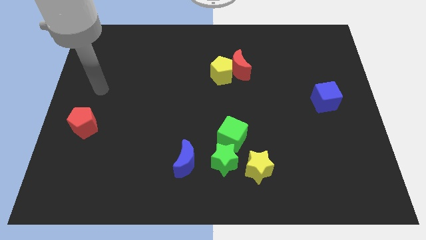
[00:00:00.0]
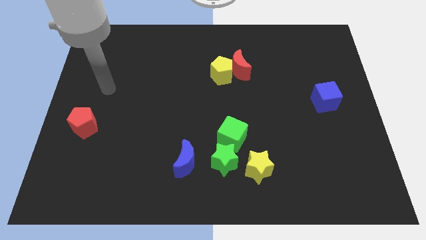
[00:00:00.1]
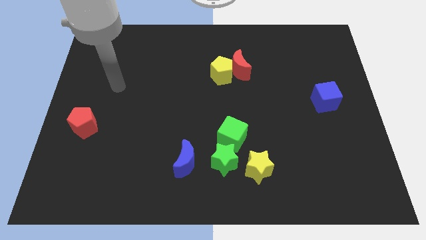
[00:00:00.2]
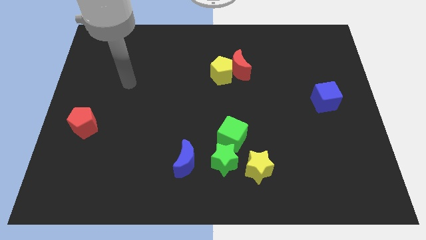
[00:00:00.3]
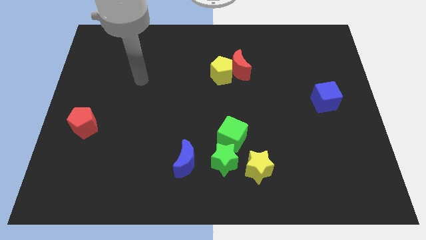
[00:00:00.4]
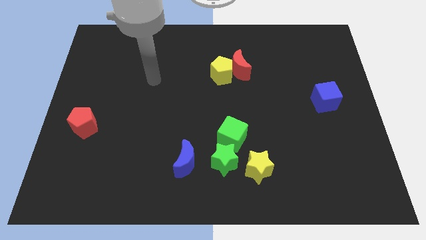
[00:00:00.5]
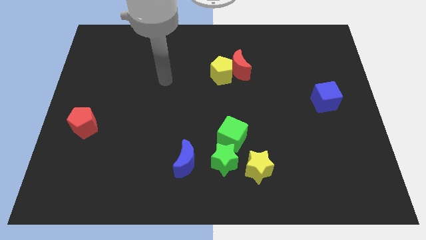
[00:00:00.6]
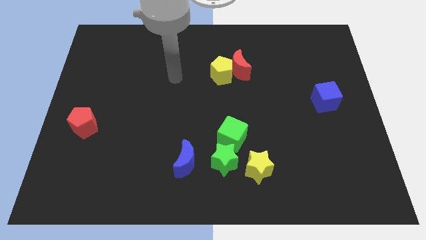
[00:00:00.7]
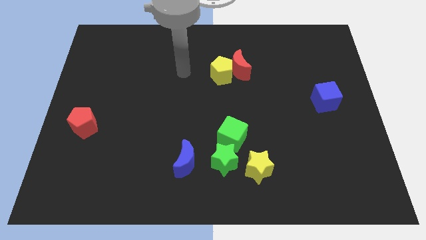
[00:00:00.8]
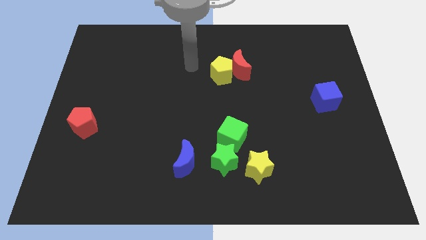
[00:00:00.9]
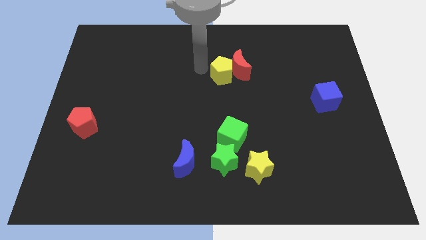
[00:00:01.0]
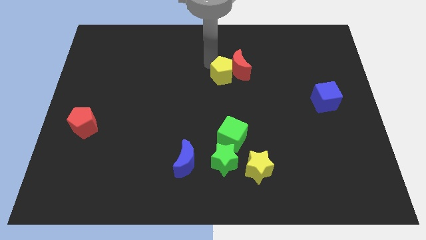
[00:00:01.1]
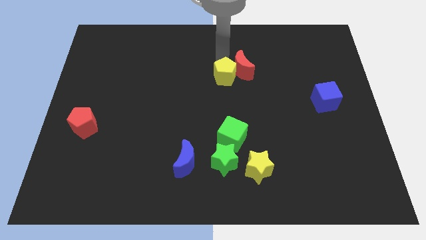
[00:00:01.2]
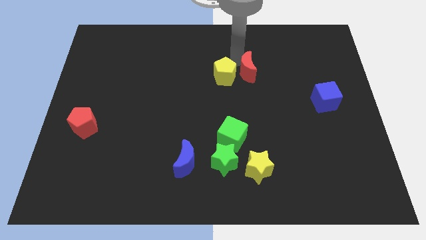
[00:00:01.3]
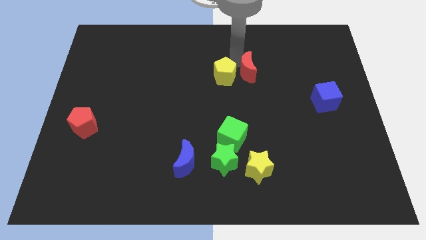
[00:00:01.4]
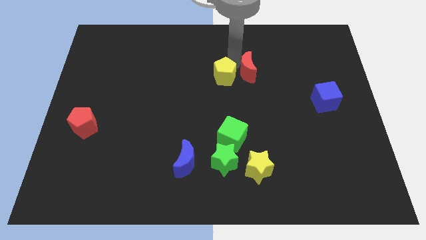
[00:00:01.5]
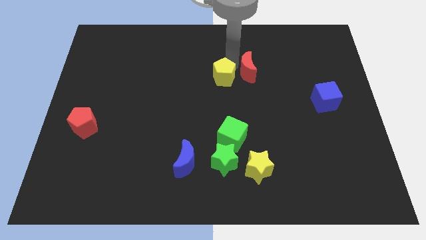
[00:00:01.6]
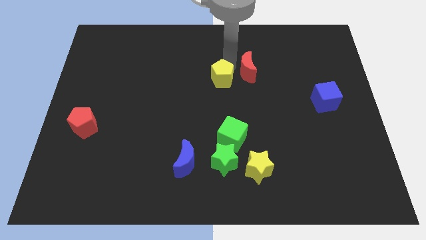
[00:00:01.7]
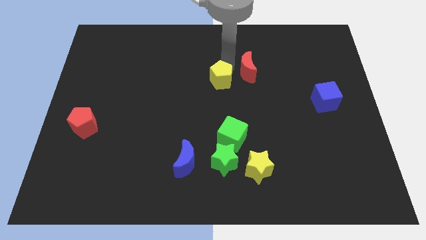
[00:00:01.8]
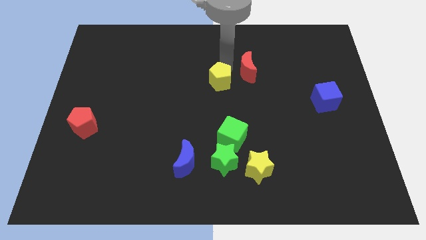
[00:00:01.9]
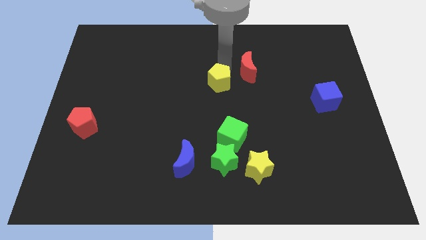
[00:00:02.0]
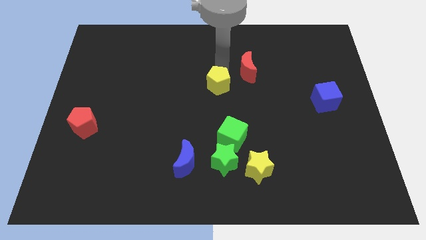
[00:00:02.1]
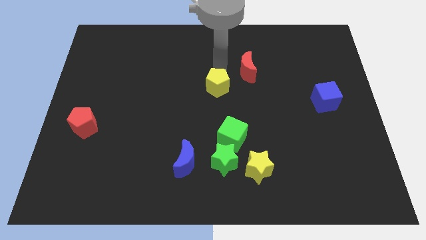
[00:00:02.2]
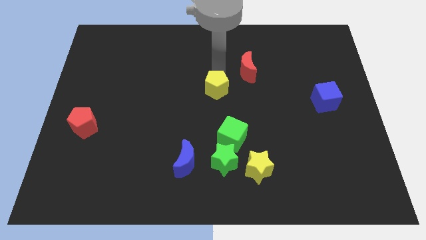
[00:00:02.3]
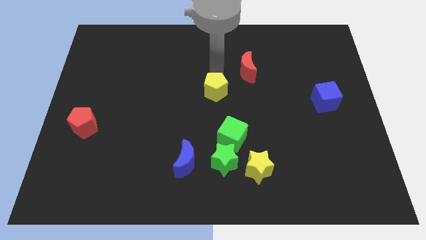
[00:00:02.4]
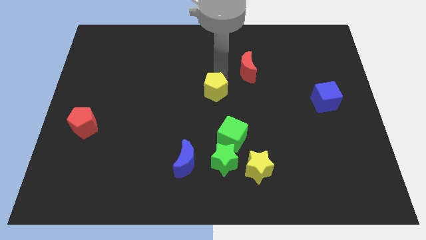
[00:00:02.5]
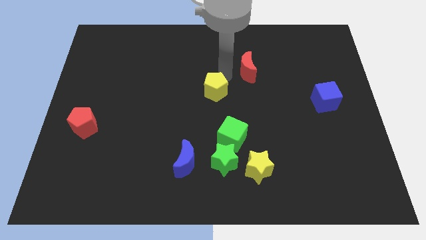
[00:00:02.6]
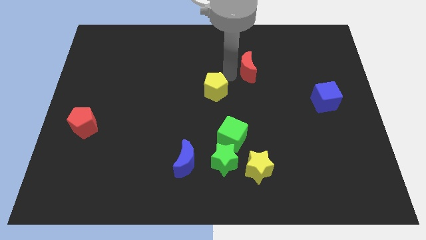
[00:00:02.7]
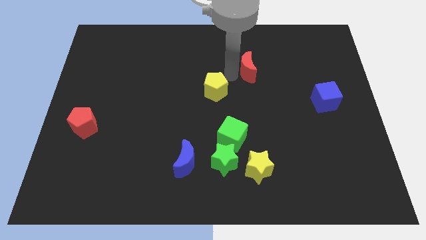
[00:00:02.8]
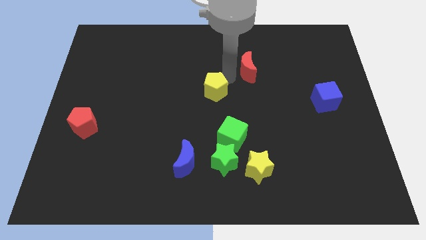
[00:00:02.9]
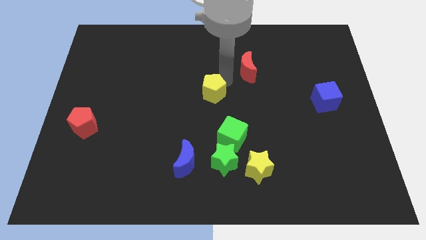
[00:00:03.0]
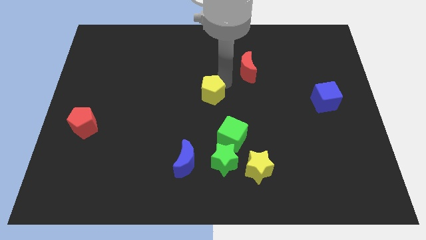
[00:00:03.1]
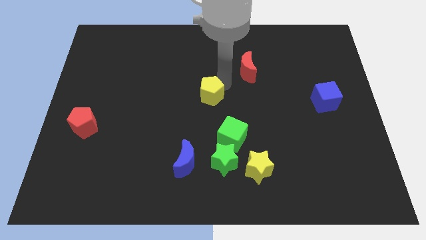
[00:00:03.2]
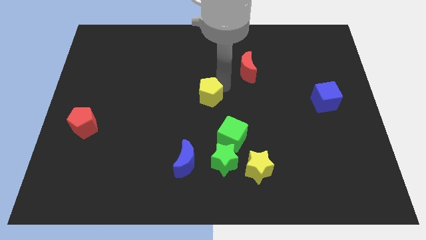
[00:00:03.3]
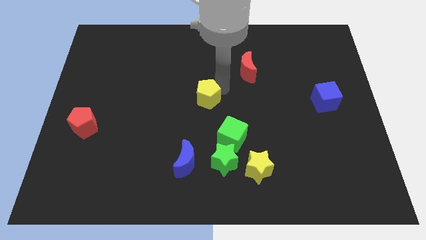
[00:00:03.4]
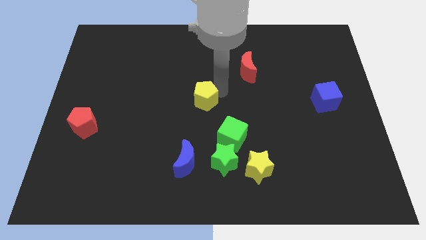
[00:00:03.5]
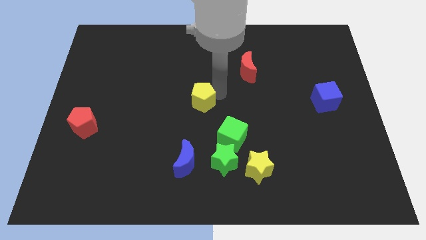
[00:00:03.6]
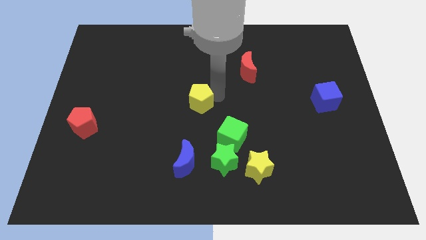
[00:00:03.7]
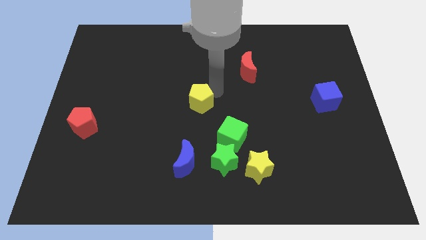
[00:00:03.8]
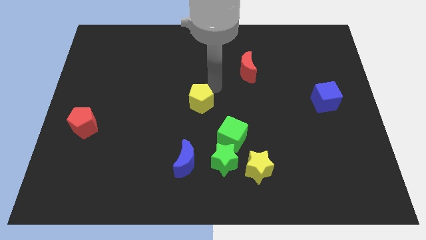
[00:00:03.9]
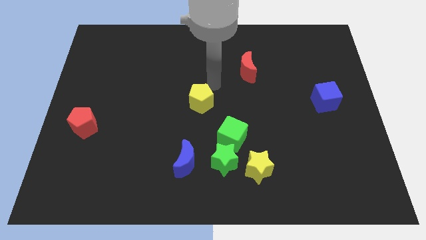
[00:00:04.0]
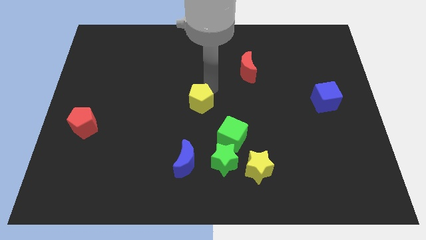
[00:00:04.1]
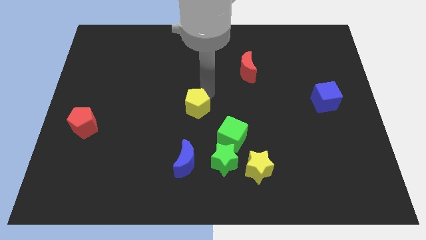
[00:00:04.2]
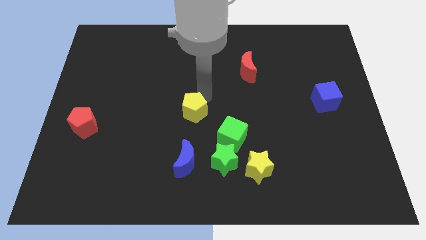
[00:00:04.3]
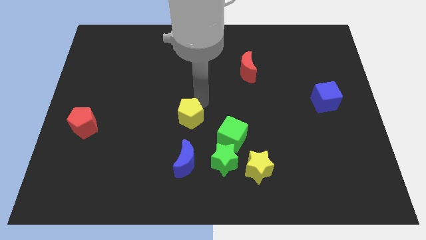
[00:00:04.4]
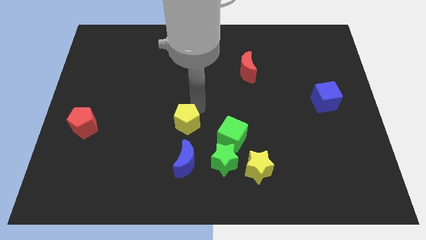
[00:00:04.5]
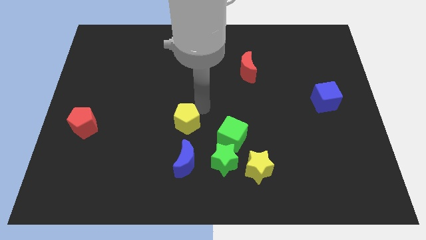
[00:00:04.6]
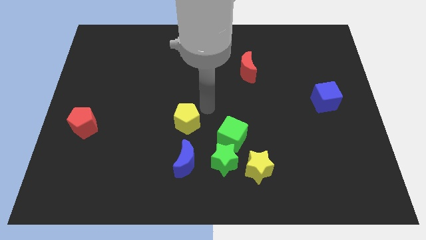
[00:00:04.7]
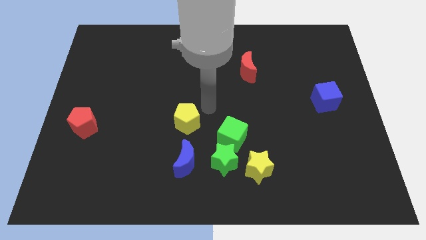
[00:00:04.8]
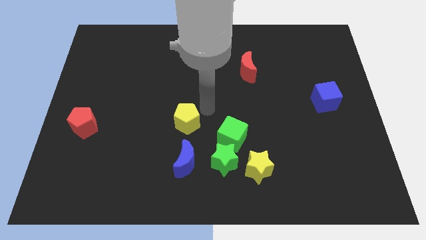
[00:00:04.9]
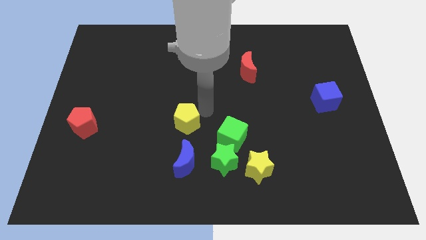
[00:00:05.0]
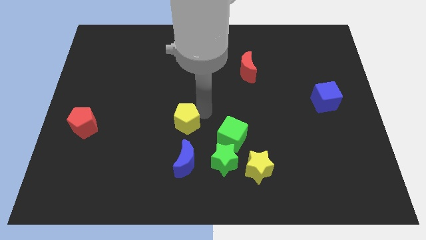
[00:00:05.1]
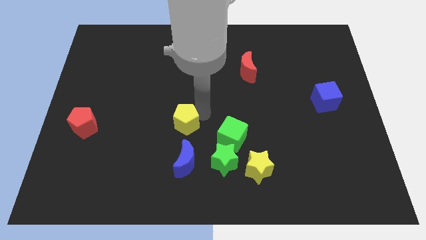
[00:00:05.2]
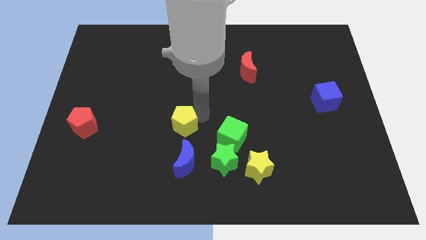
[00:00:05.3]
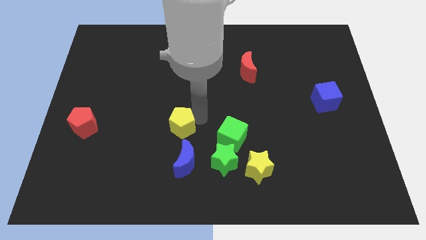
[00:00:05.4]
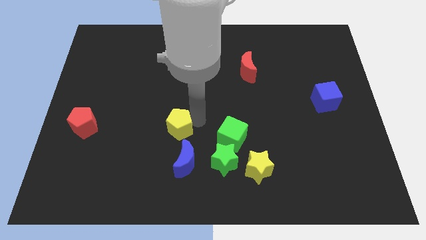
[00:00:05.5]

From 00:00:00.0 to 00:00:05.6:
push the yellow pentagon to the top left of the blue moon

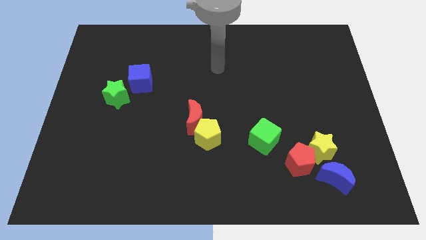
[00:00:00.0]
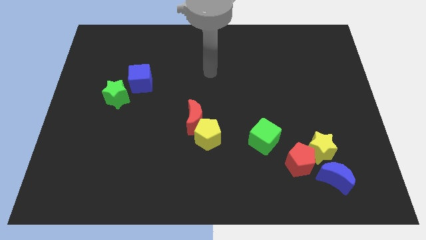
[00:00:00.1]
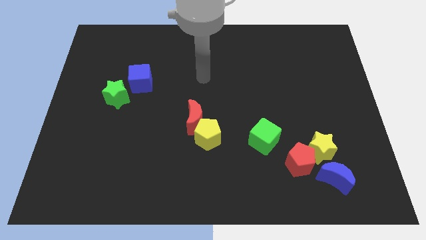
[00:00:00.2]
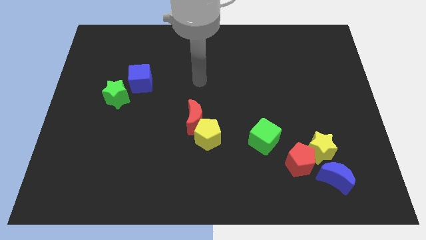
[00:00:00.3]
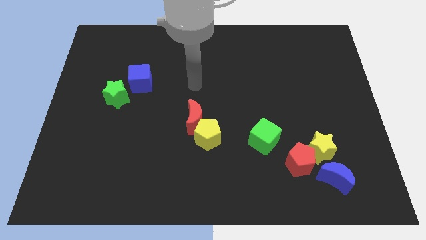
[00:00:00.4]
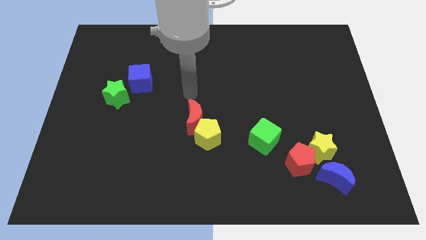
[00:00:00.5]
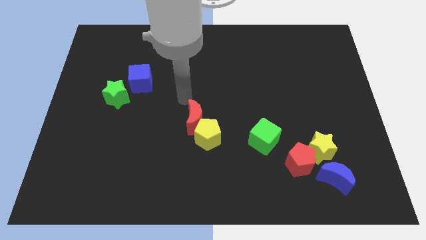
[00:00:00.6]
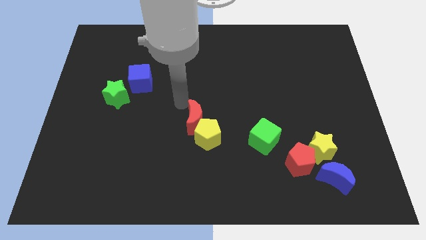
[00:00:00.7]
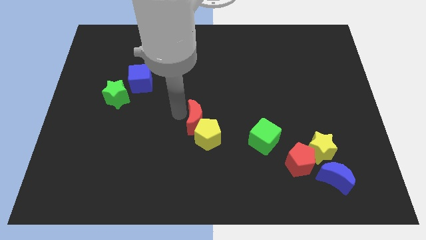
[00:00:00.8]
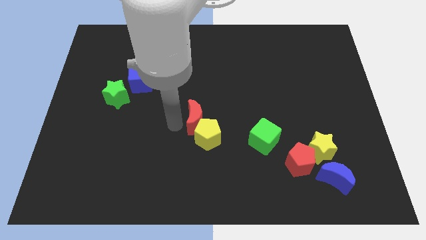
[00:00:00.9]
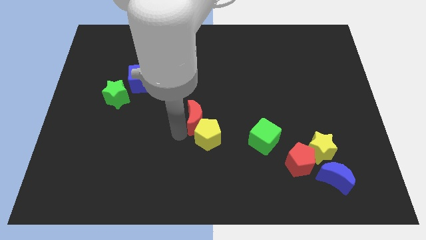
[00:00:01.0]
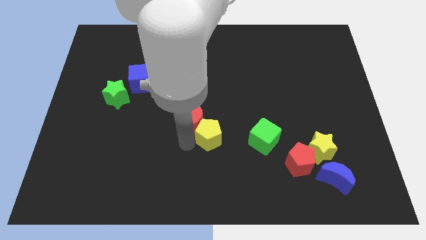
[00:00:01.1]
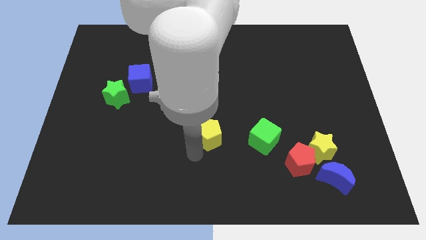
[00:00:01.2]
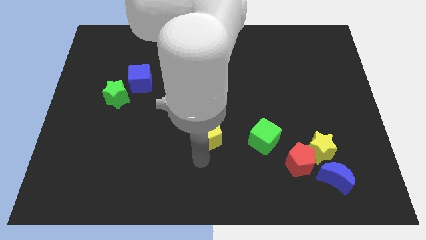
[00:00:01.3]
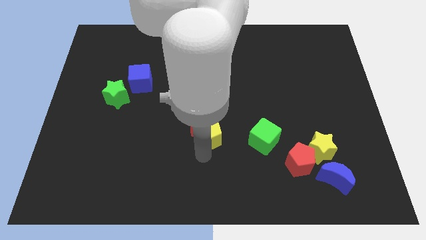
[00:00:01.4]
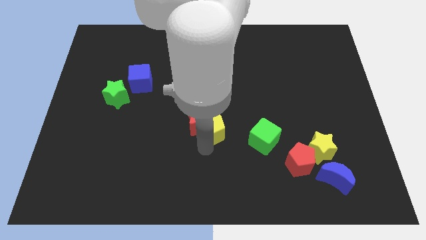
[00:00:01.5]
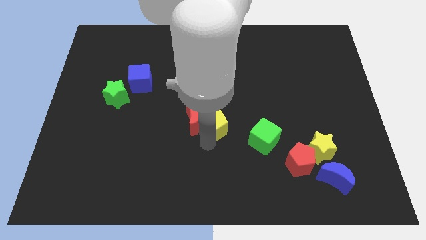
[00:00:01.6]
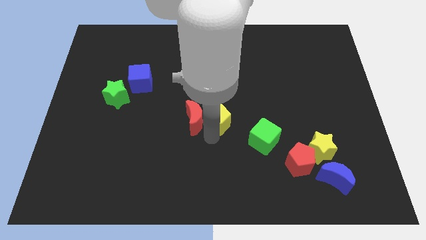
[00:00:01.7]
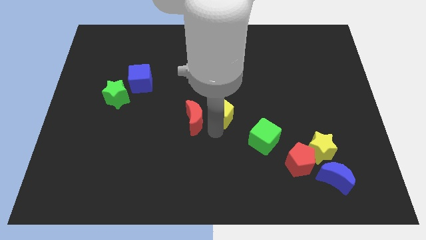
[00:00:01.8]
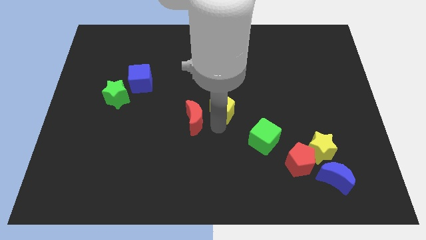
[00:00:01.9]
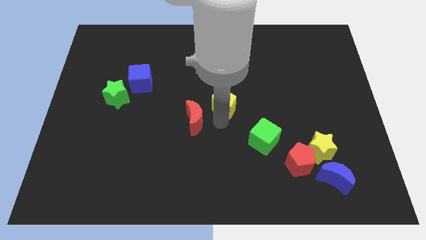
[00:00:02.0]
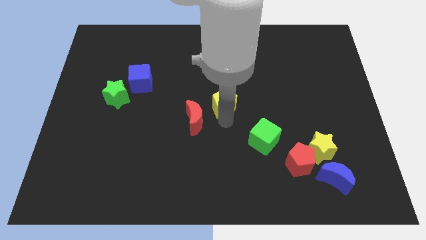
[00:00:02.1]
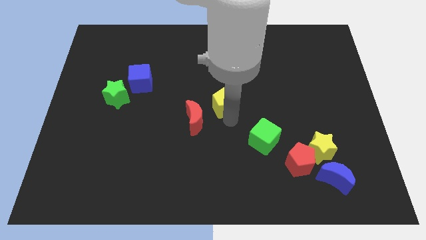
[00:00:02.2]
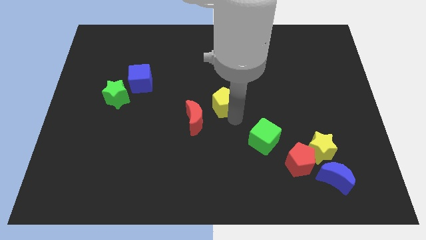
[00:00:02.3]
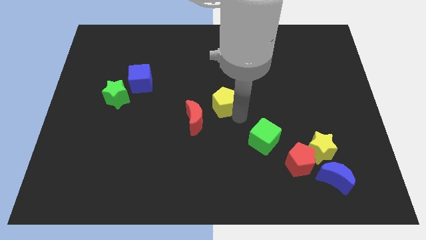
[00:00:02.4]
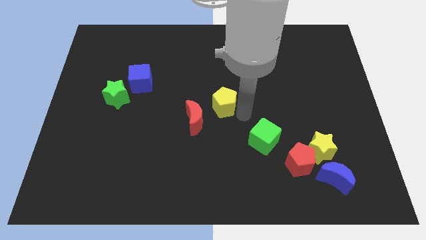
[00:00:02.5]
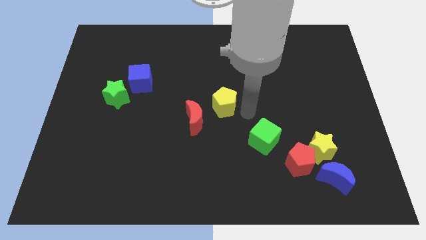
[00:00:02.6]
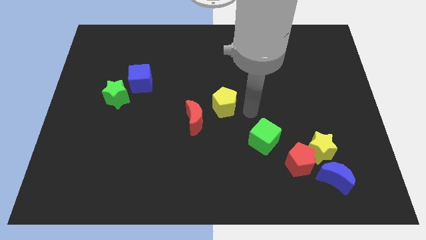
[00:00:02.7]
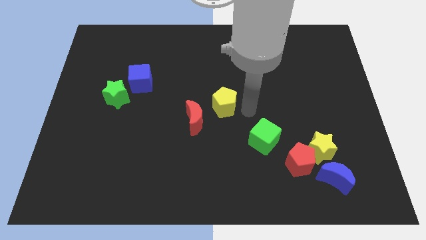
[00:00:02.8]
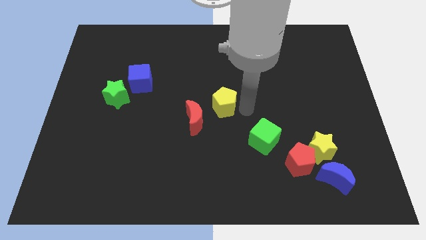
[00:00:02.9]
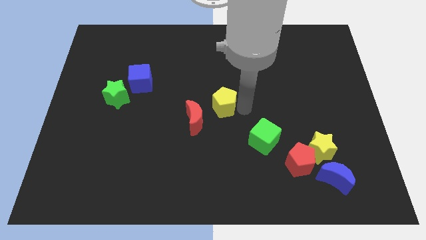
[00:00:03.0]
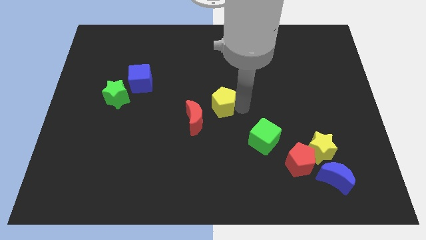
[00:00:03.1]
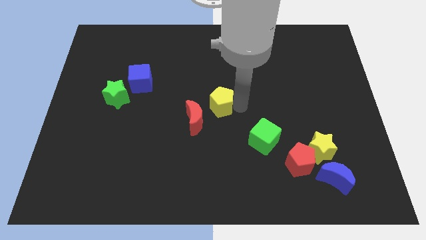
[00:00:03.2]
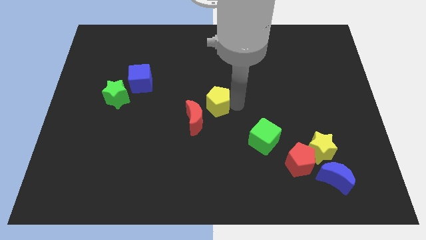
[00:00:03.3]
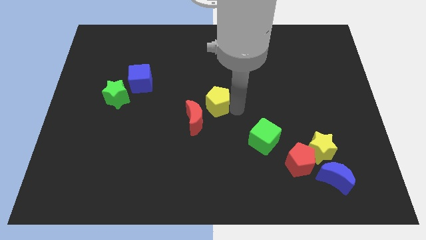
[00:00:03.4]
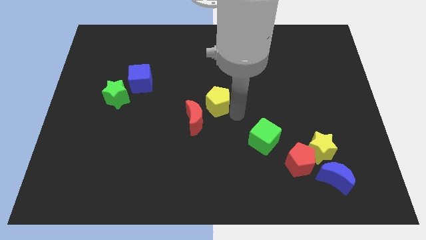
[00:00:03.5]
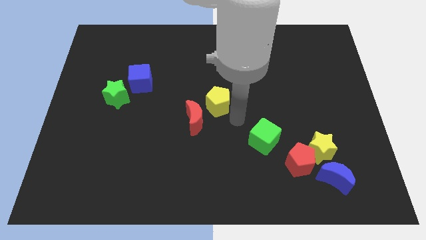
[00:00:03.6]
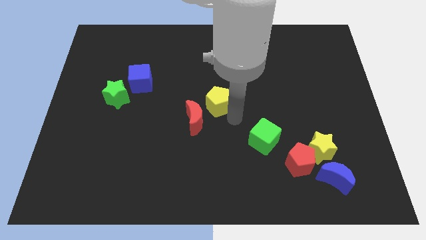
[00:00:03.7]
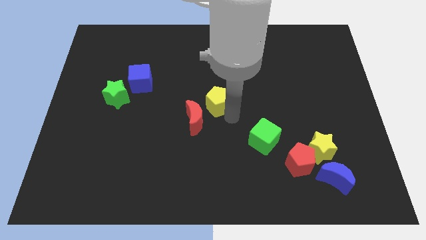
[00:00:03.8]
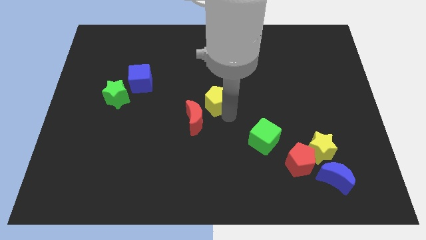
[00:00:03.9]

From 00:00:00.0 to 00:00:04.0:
slide the yellow pentagon to the top of the red moon
